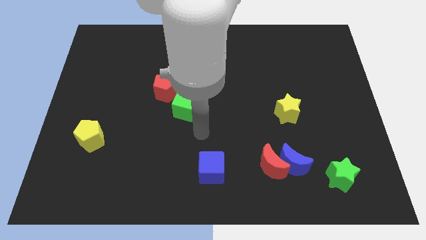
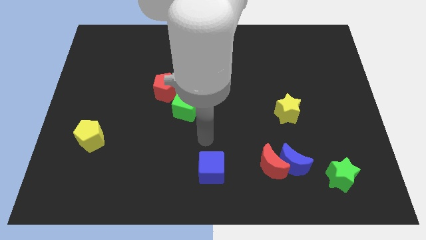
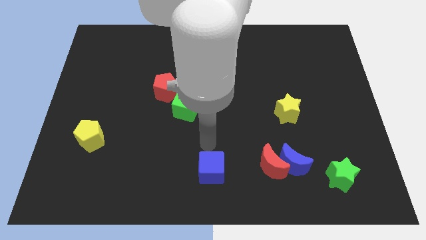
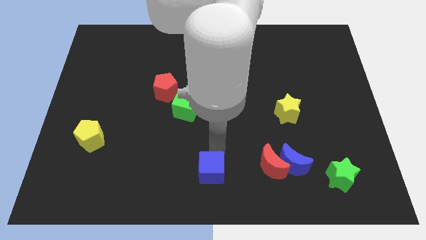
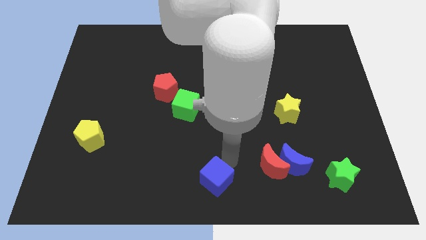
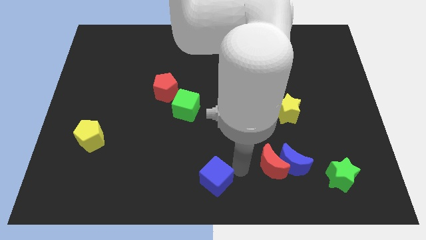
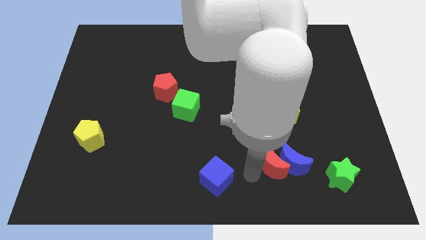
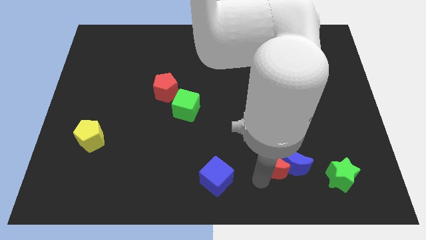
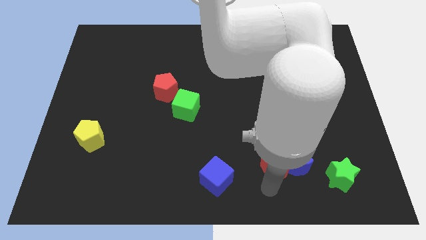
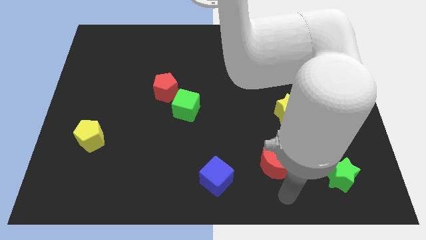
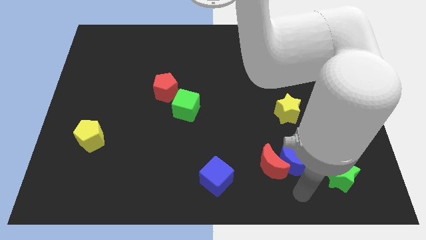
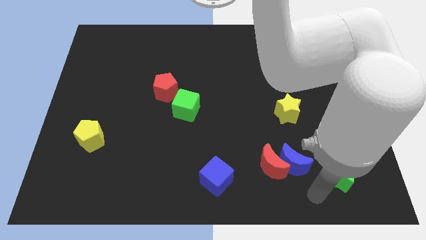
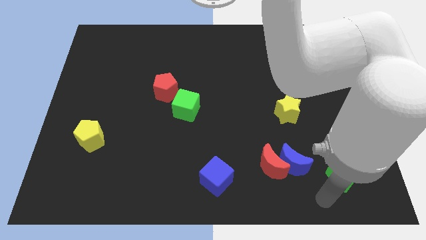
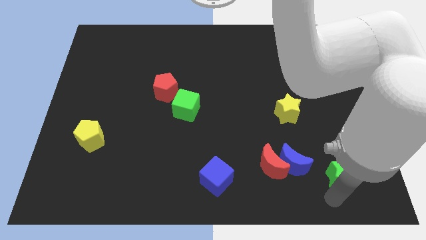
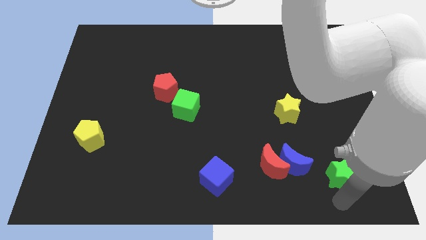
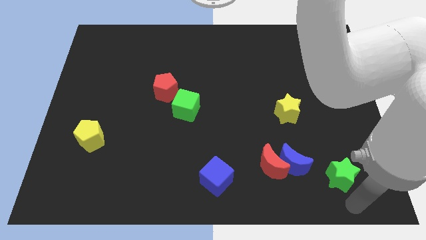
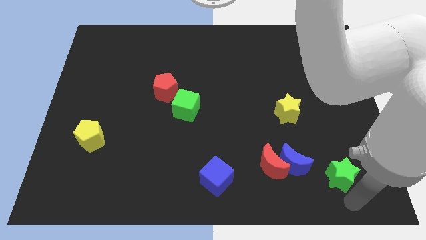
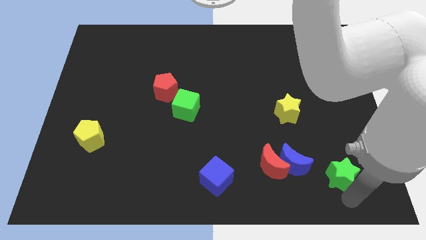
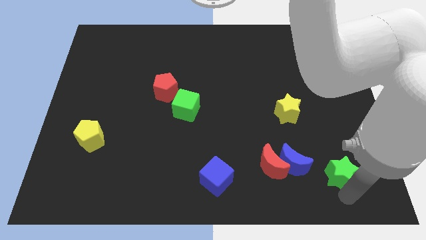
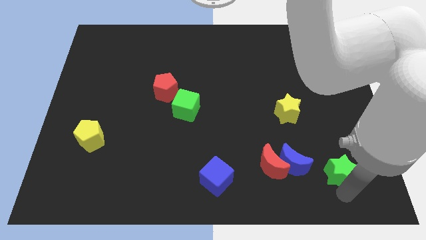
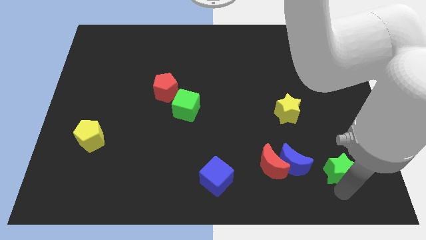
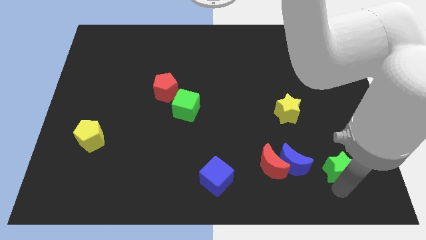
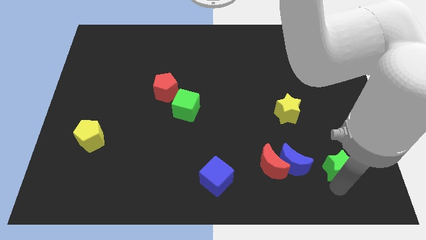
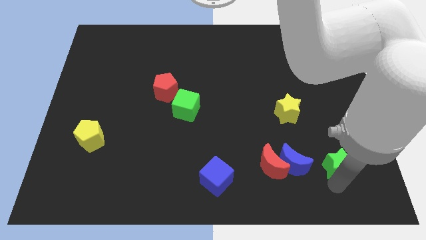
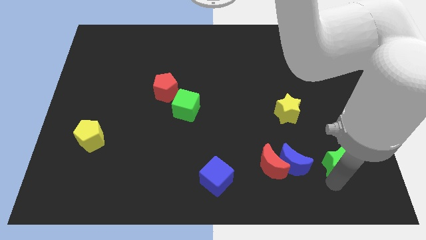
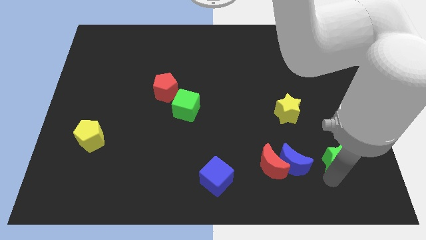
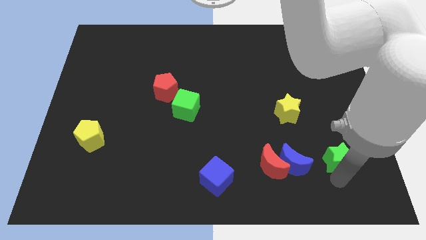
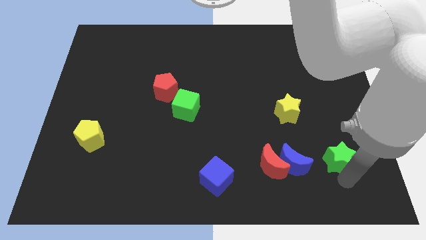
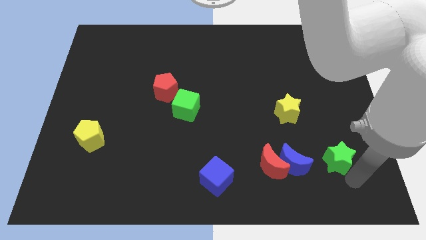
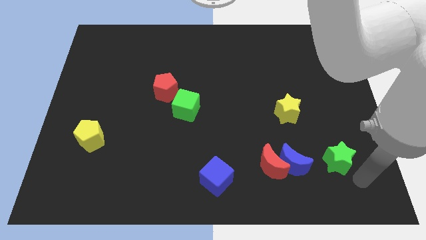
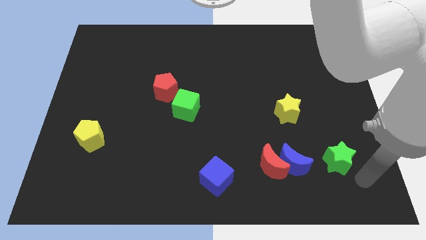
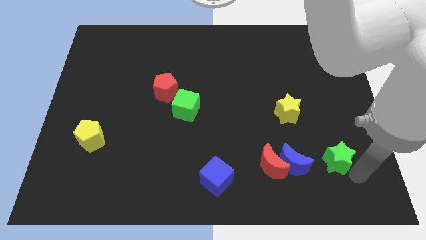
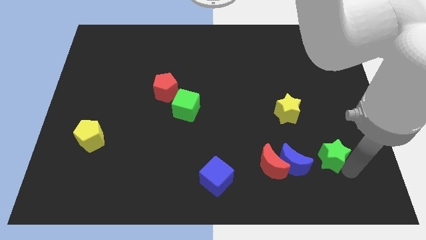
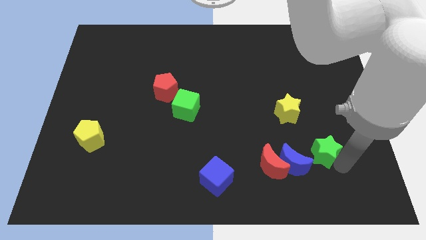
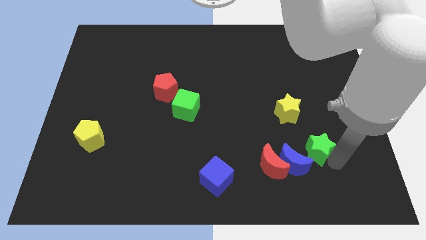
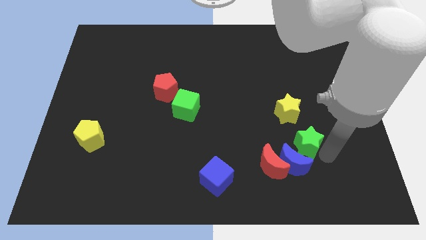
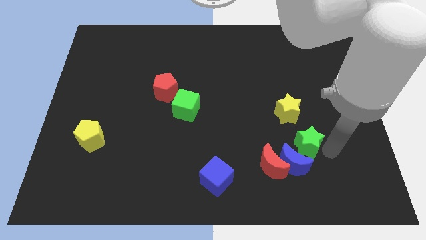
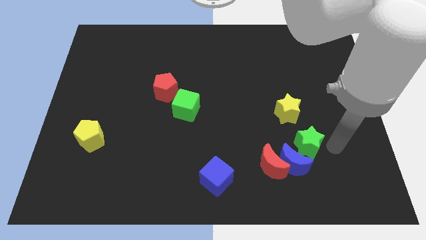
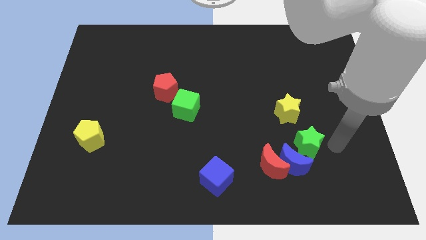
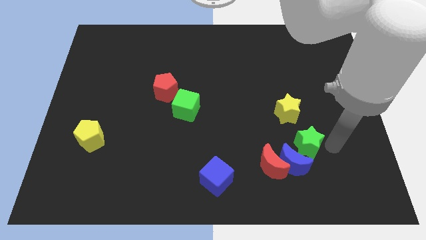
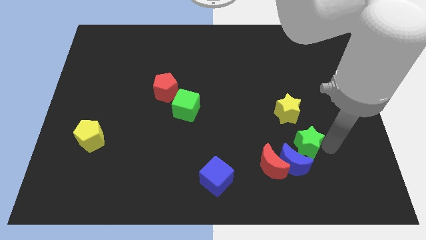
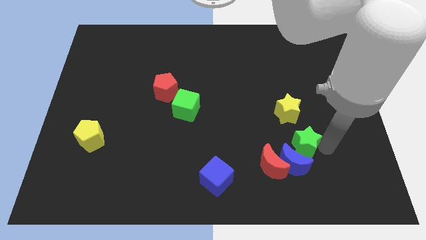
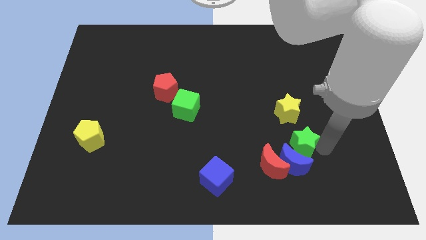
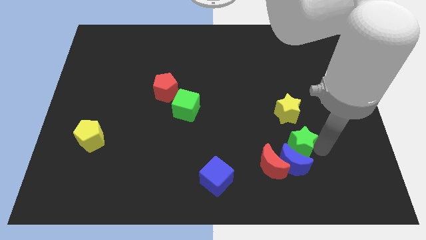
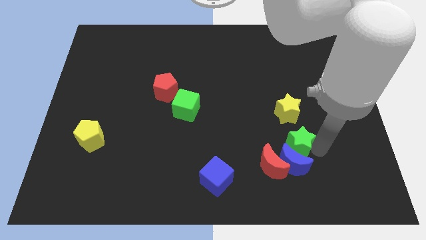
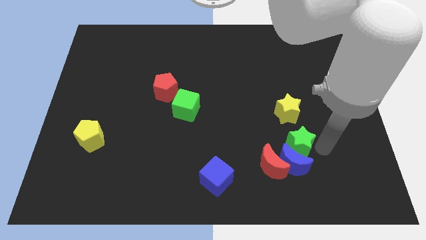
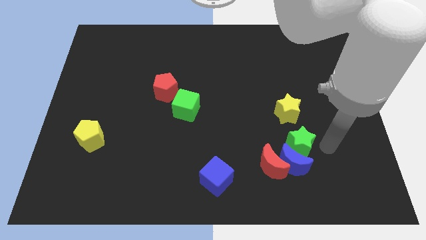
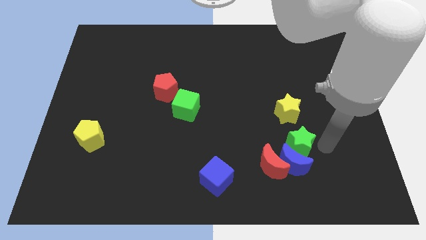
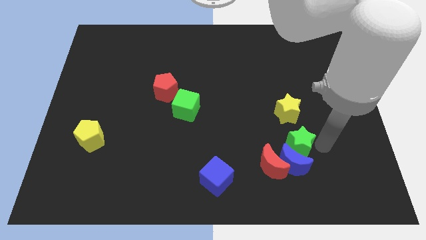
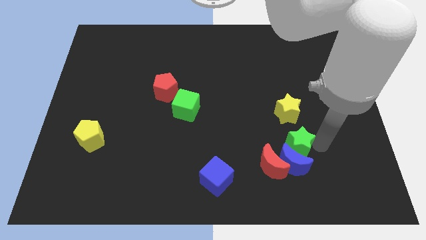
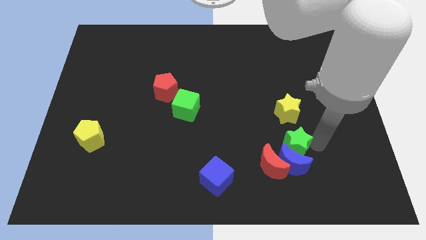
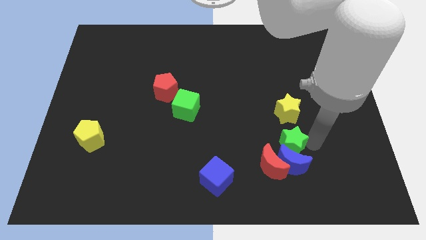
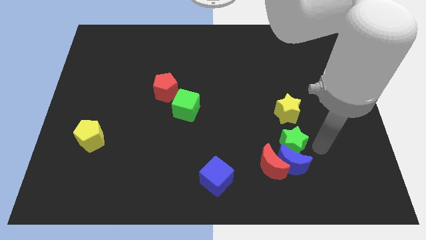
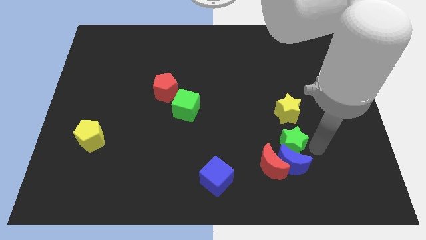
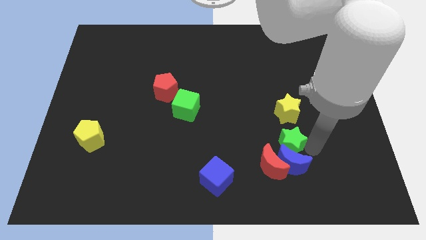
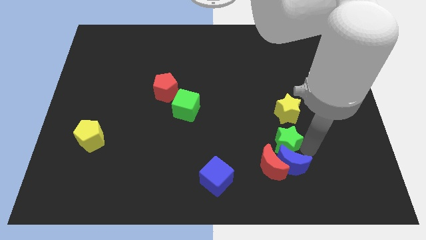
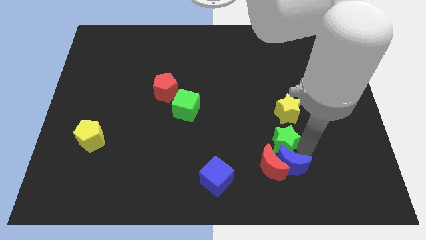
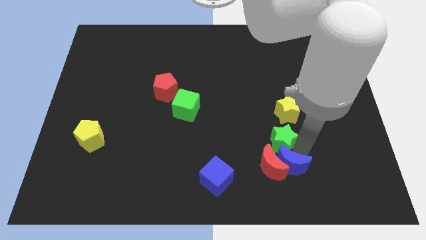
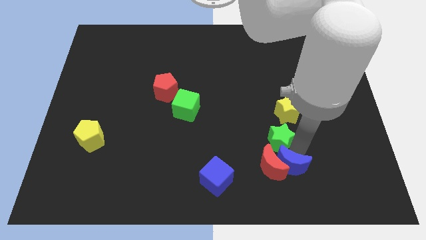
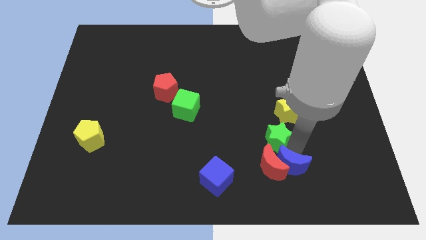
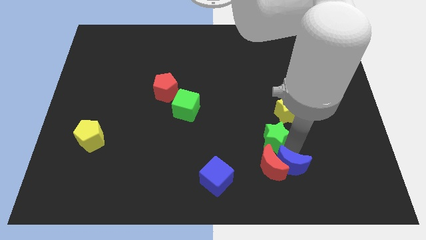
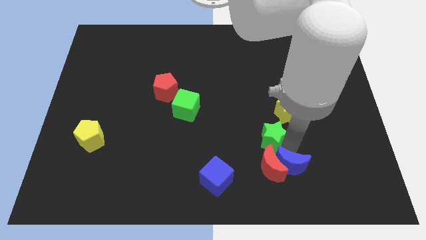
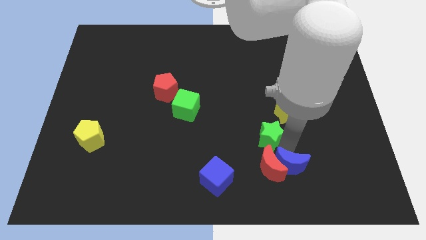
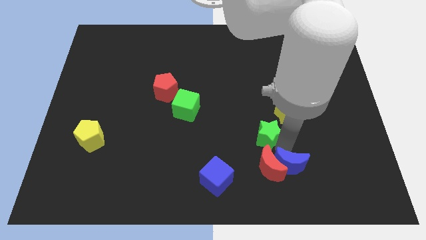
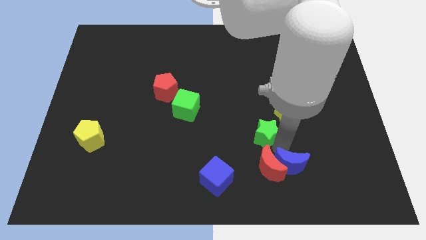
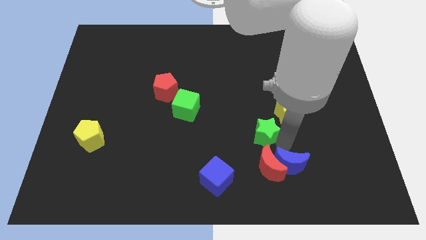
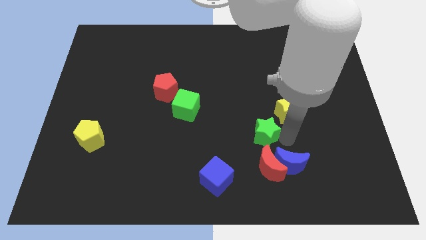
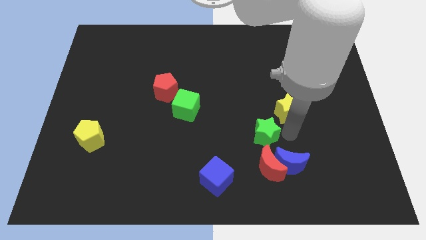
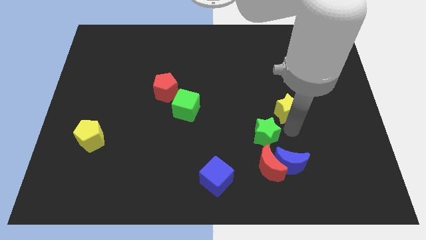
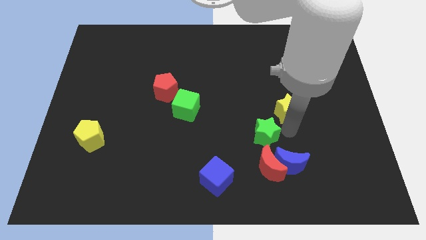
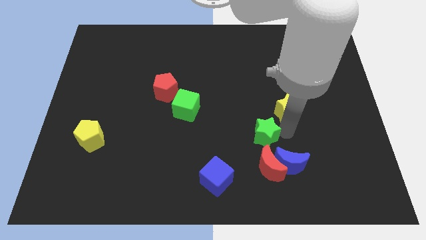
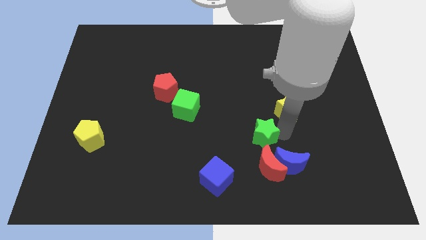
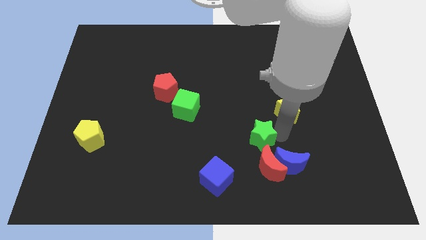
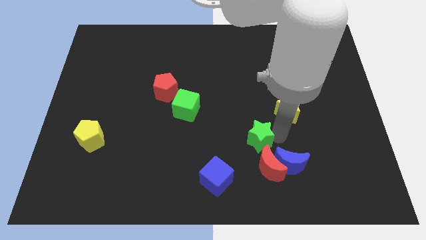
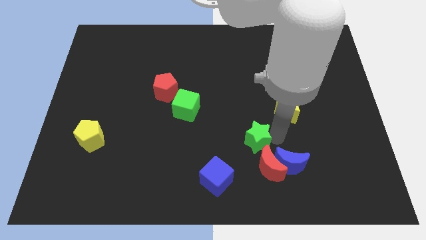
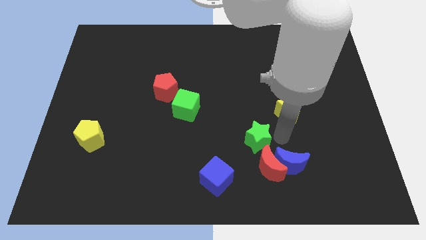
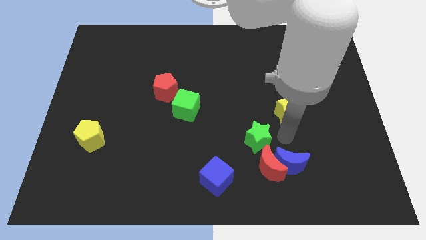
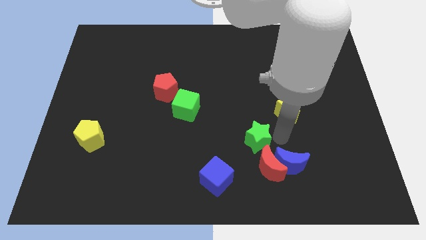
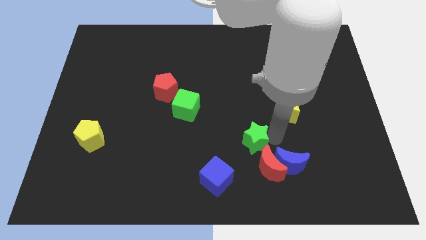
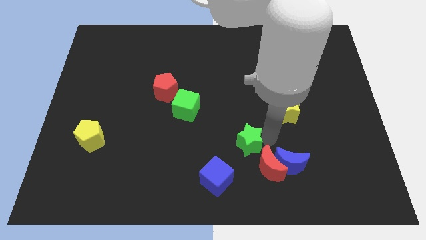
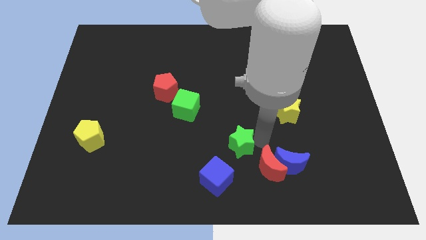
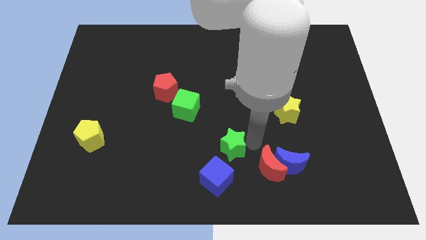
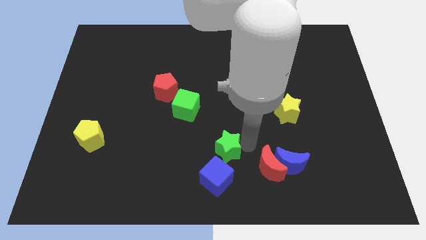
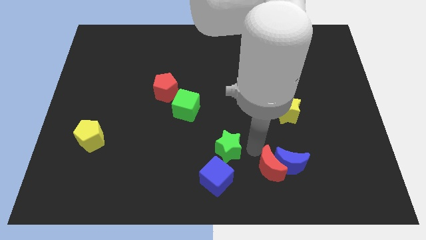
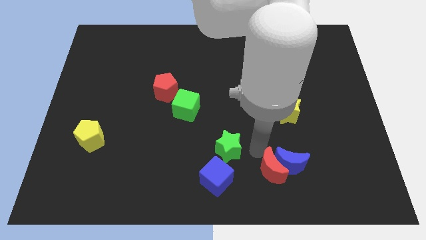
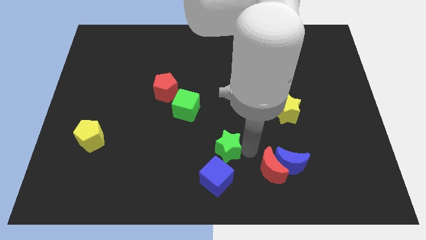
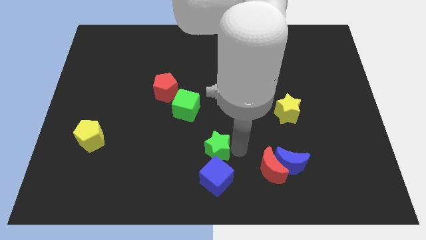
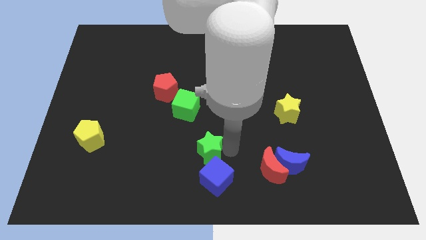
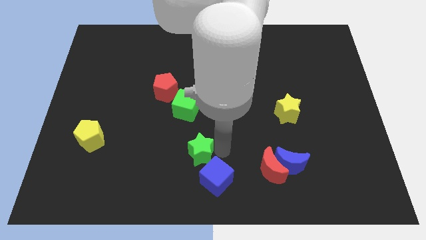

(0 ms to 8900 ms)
slide the green star to the bottom side of the green cube
